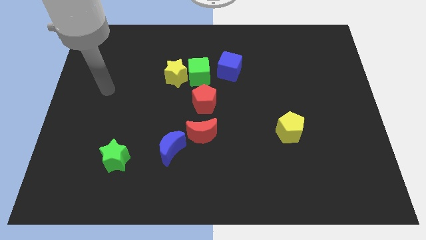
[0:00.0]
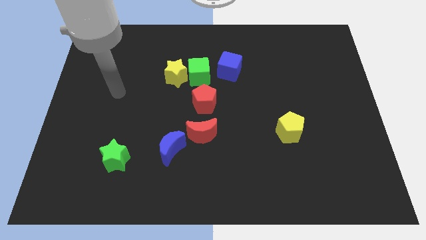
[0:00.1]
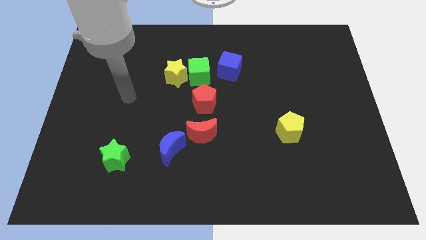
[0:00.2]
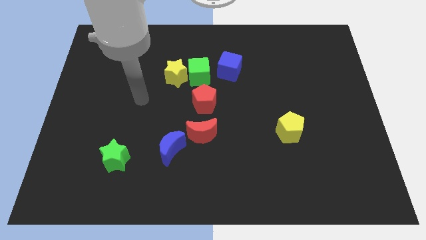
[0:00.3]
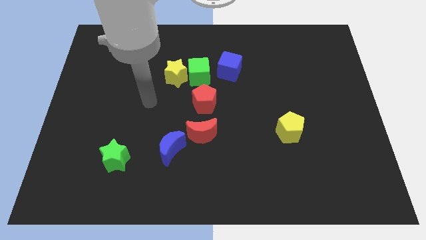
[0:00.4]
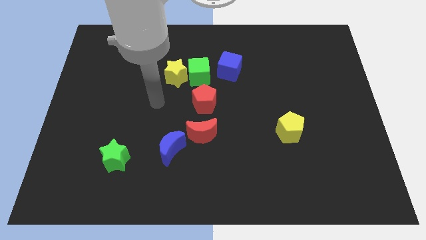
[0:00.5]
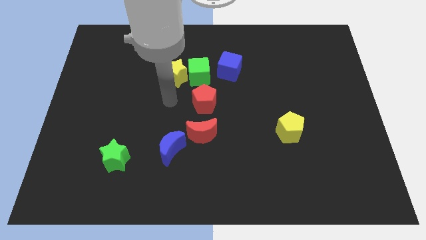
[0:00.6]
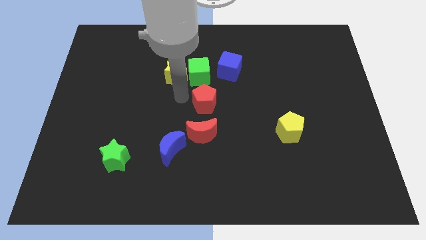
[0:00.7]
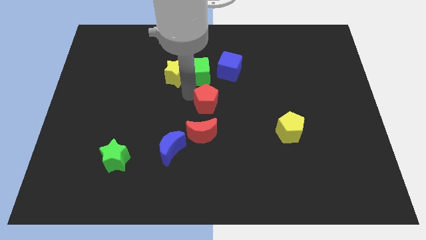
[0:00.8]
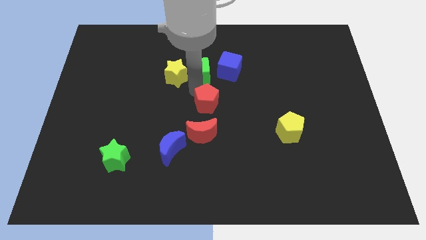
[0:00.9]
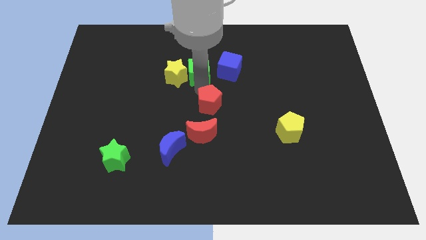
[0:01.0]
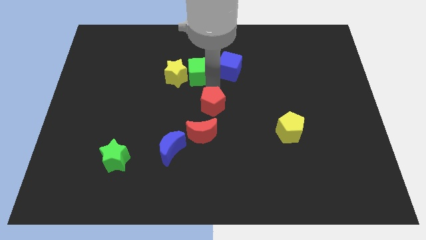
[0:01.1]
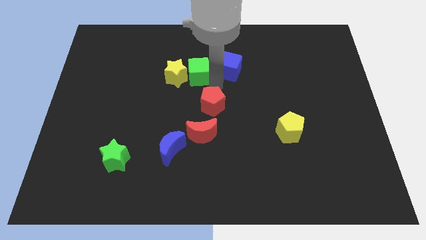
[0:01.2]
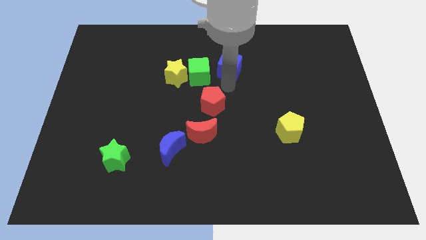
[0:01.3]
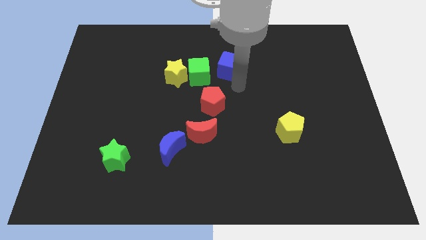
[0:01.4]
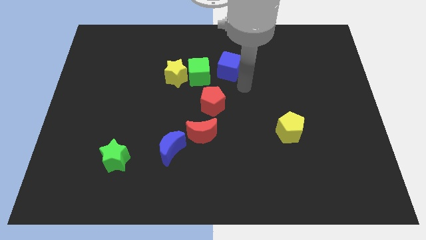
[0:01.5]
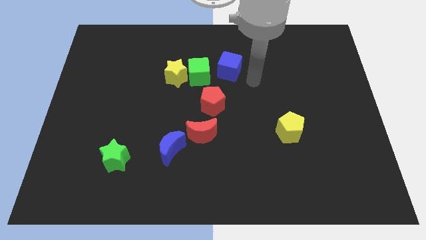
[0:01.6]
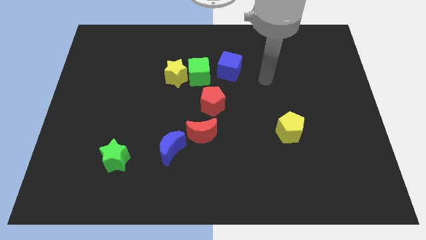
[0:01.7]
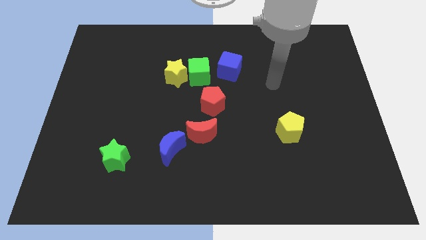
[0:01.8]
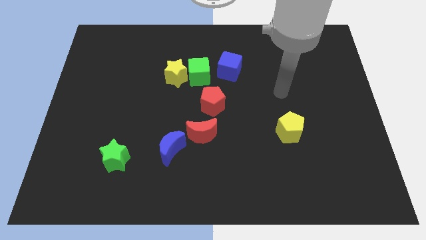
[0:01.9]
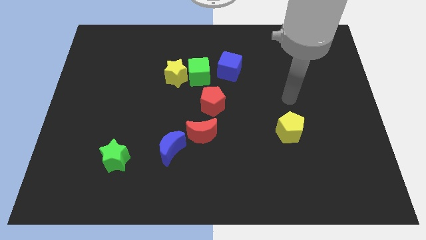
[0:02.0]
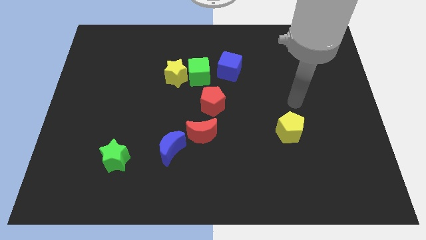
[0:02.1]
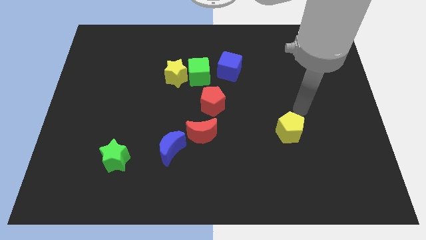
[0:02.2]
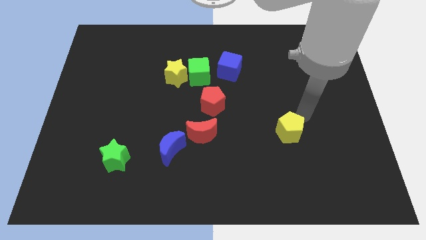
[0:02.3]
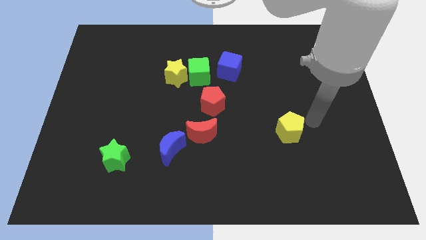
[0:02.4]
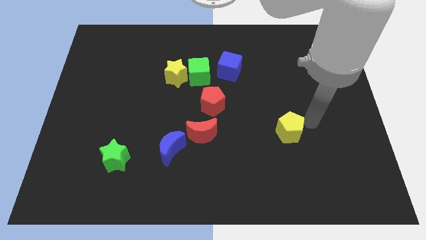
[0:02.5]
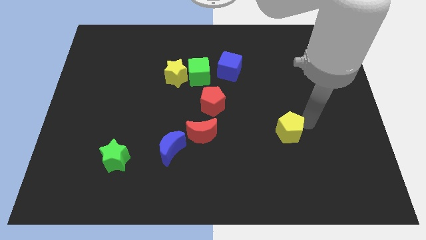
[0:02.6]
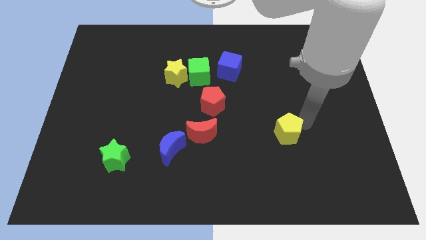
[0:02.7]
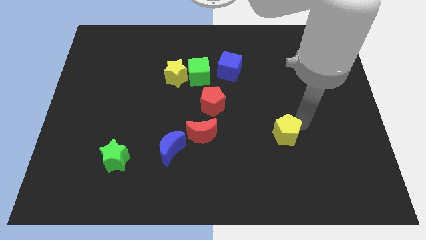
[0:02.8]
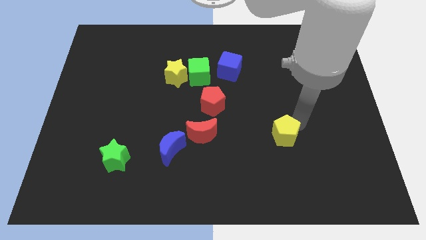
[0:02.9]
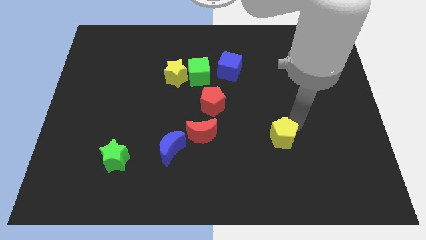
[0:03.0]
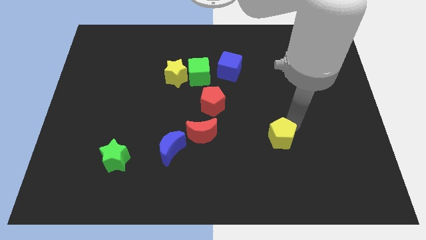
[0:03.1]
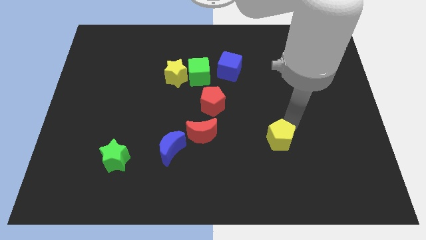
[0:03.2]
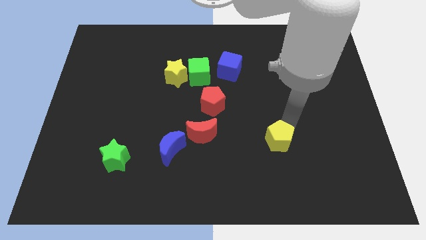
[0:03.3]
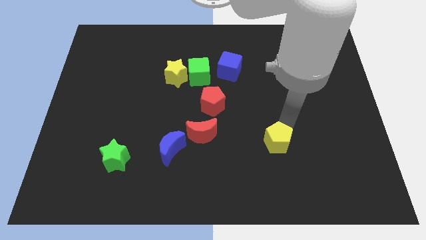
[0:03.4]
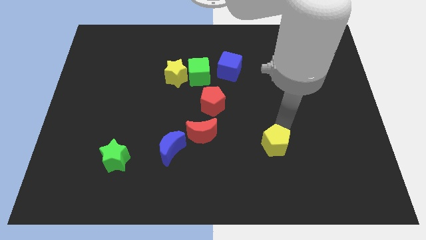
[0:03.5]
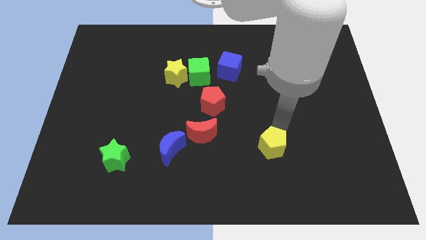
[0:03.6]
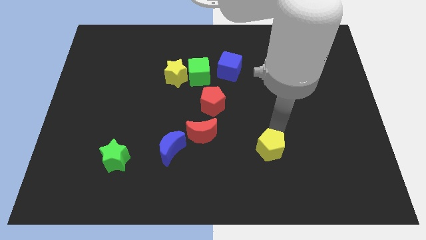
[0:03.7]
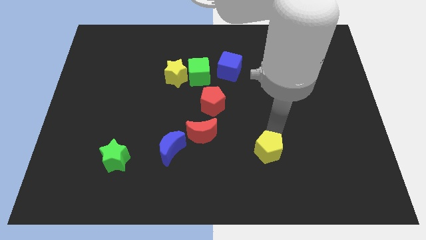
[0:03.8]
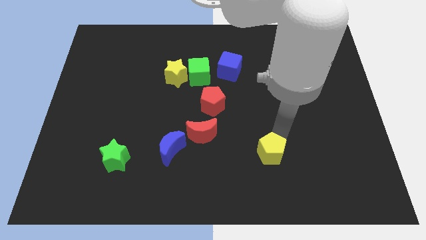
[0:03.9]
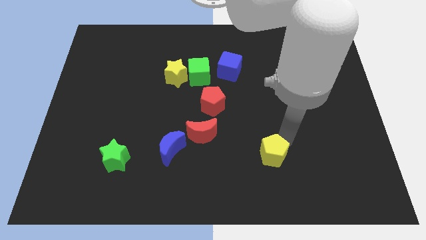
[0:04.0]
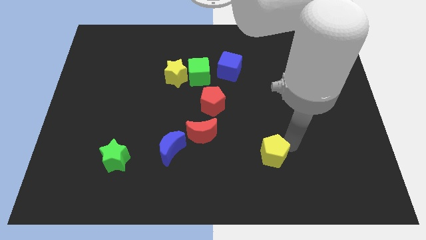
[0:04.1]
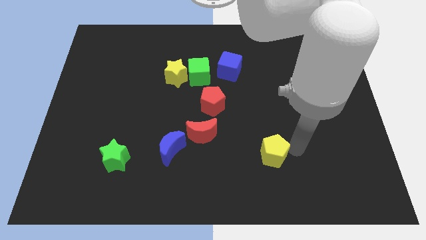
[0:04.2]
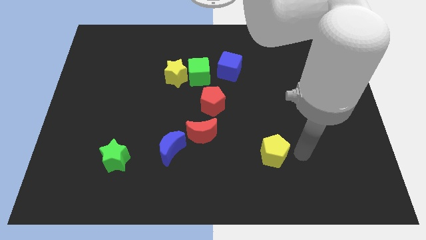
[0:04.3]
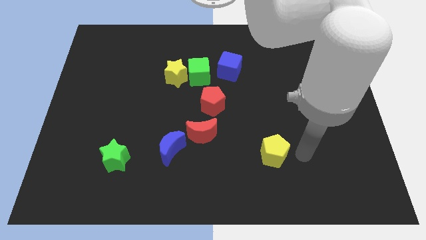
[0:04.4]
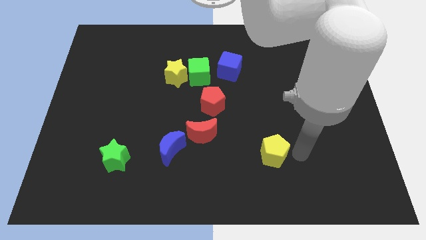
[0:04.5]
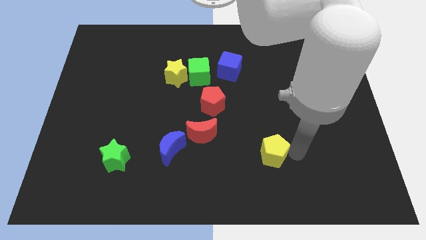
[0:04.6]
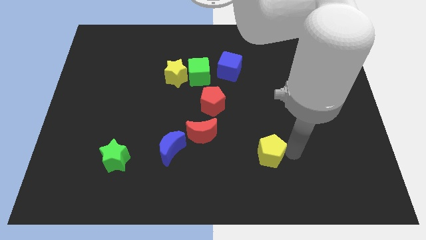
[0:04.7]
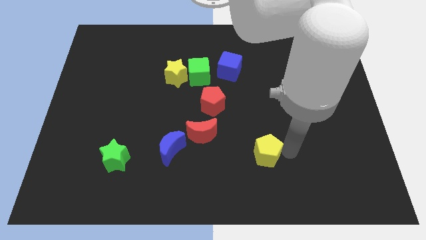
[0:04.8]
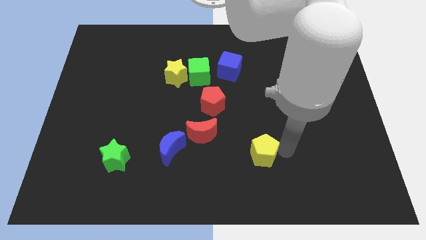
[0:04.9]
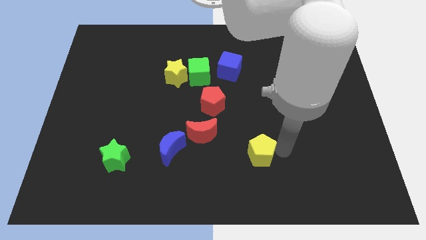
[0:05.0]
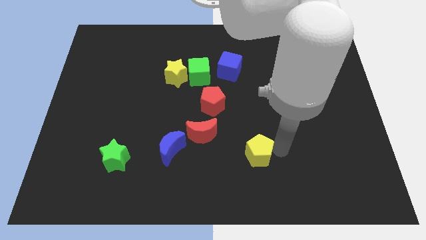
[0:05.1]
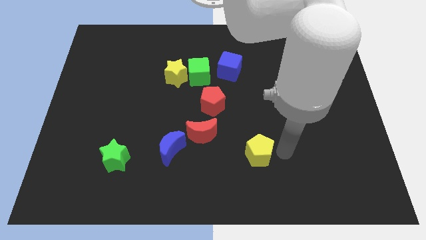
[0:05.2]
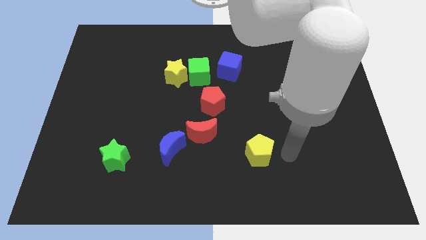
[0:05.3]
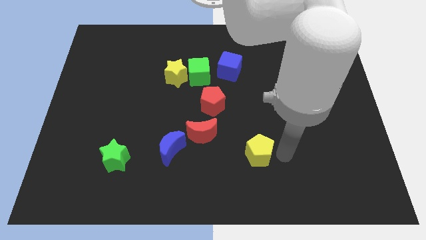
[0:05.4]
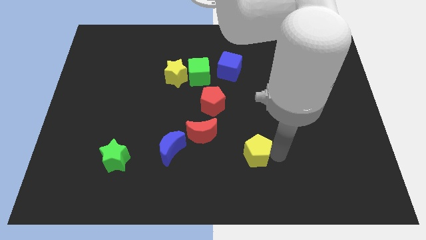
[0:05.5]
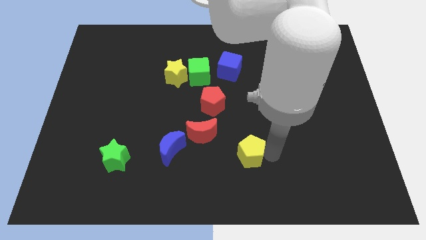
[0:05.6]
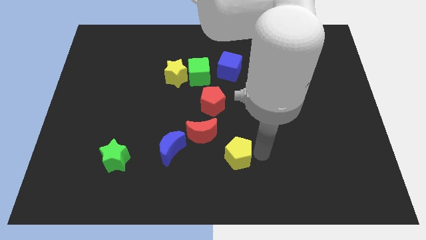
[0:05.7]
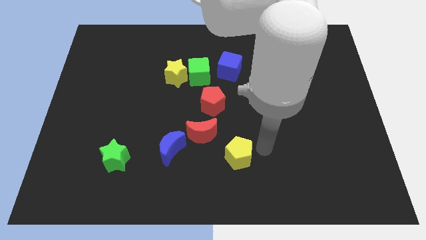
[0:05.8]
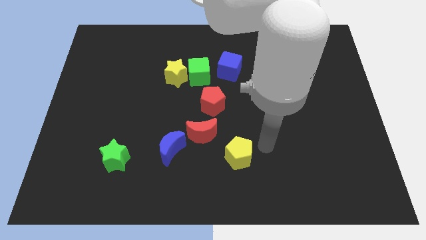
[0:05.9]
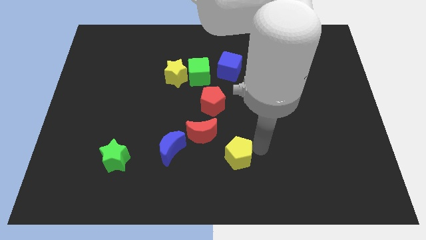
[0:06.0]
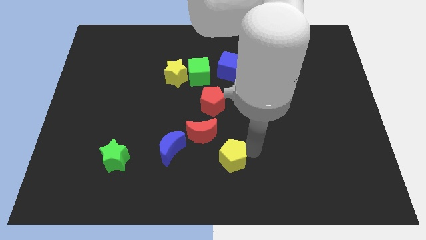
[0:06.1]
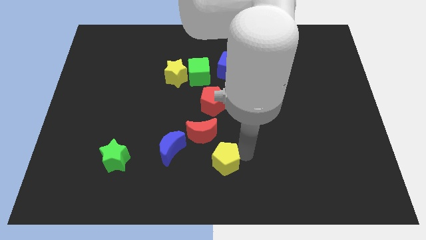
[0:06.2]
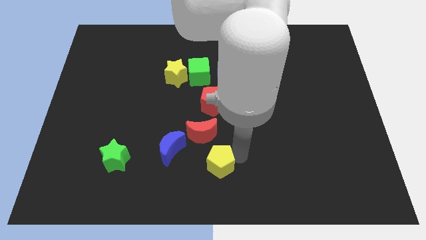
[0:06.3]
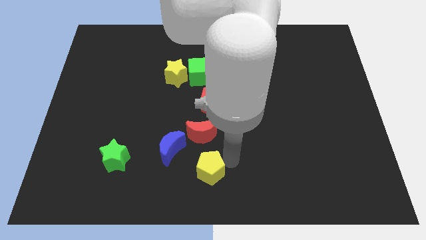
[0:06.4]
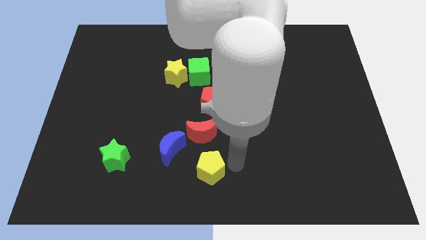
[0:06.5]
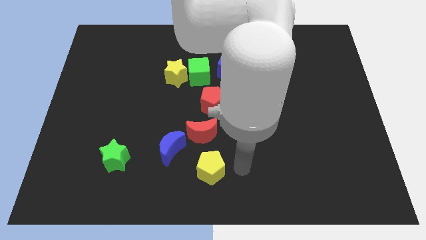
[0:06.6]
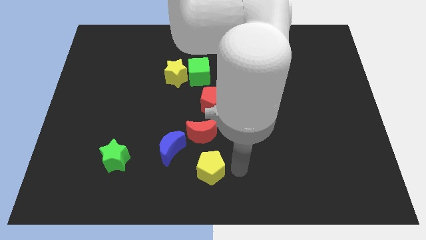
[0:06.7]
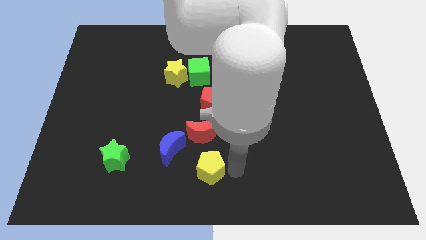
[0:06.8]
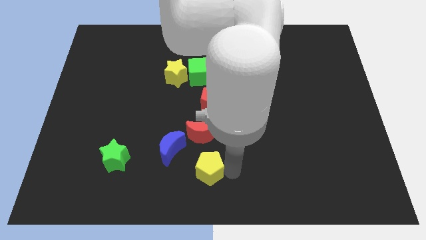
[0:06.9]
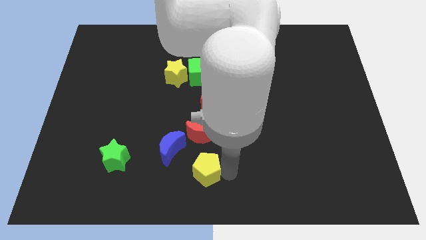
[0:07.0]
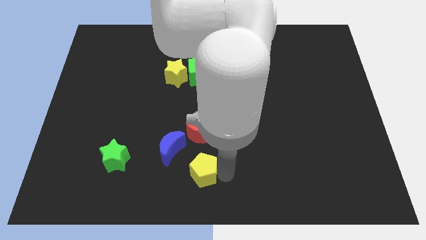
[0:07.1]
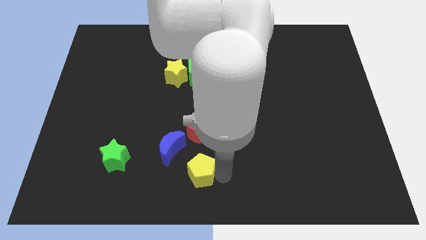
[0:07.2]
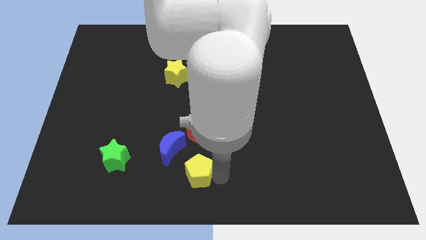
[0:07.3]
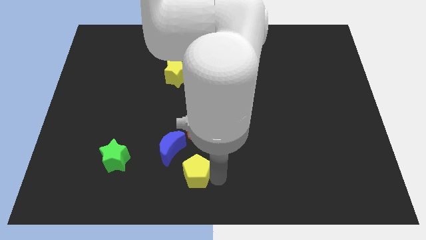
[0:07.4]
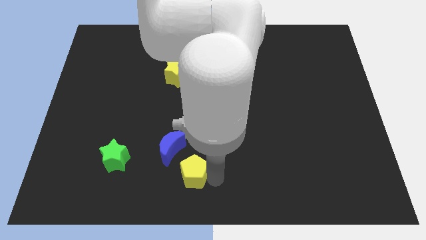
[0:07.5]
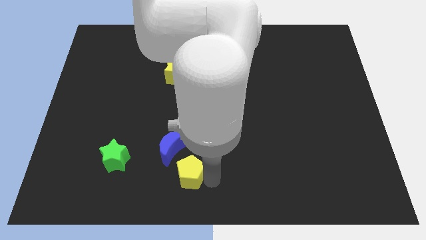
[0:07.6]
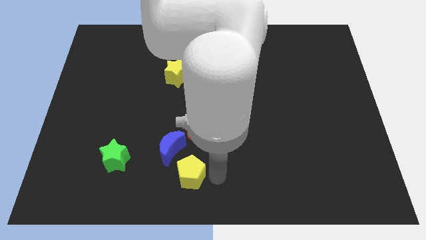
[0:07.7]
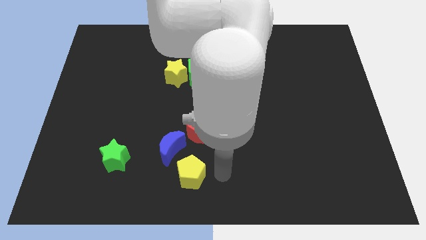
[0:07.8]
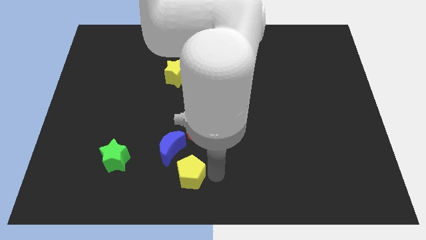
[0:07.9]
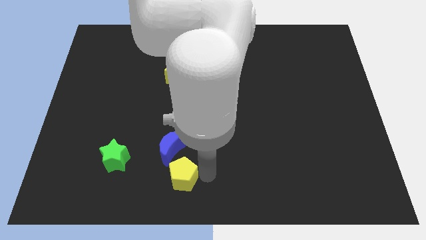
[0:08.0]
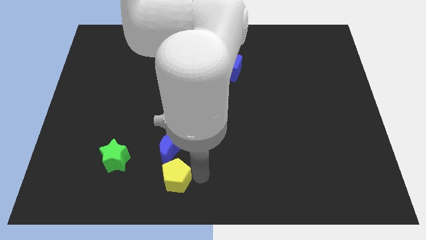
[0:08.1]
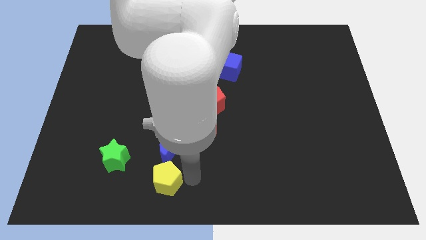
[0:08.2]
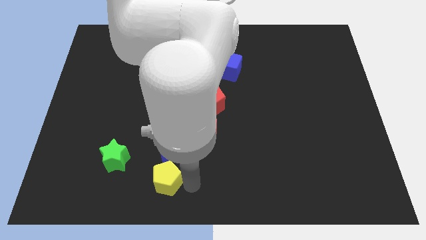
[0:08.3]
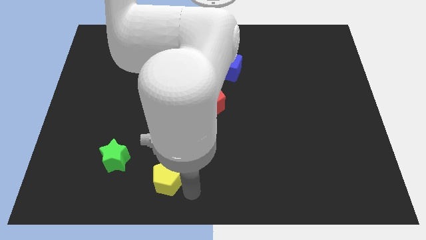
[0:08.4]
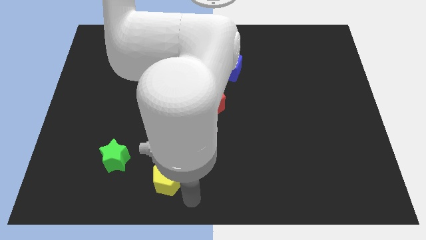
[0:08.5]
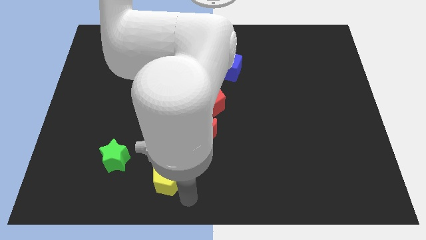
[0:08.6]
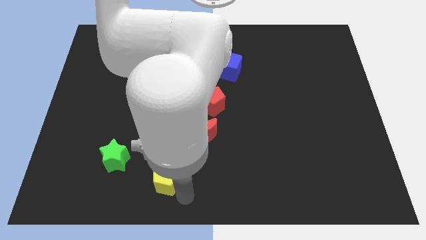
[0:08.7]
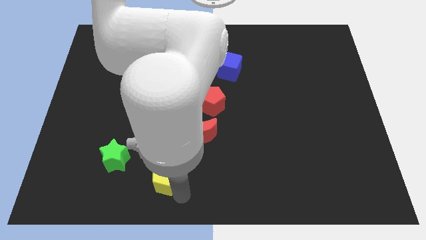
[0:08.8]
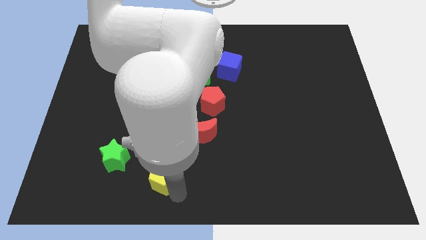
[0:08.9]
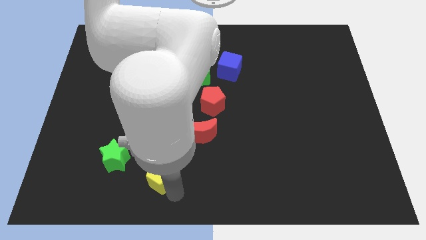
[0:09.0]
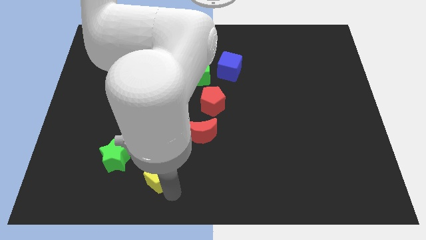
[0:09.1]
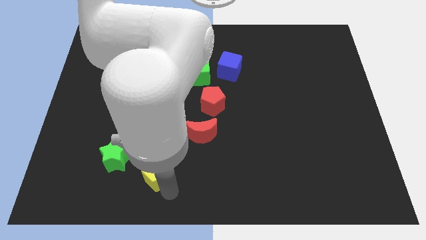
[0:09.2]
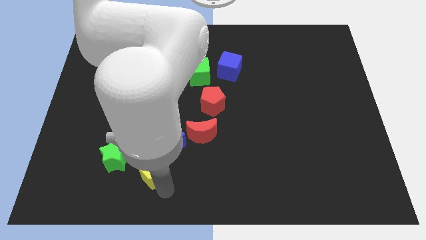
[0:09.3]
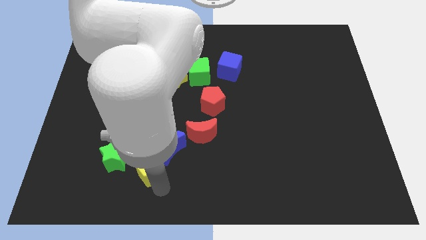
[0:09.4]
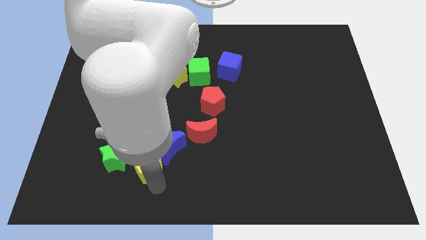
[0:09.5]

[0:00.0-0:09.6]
slide the yellow pentagon to the left side of the blue moon
